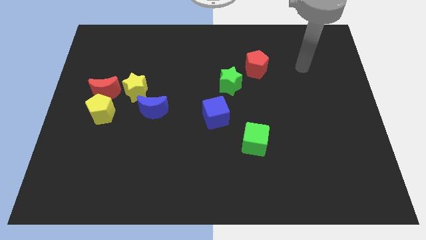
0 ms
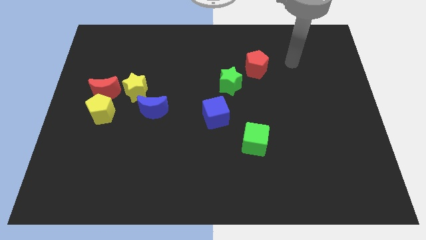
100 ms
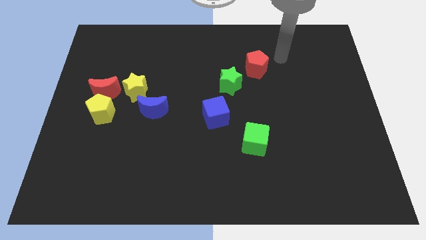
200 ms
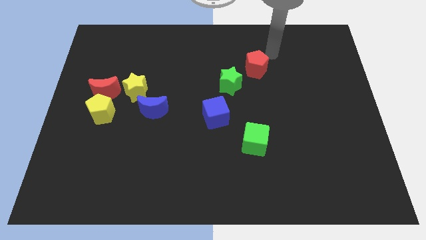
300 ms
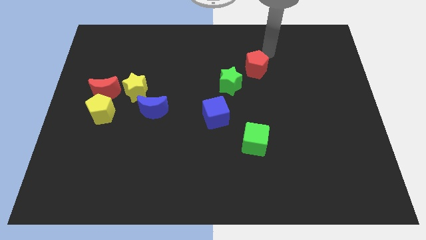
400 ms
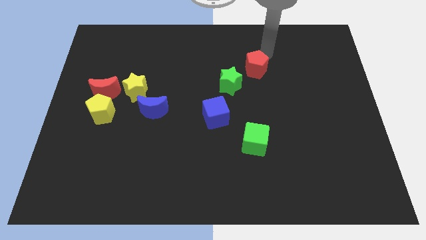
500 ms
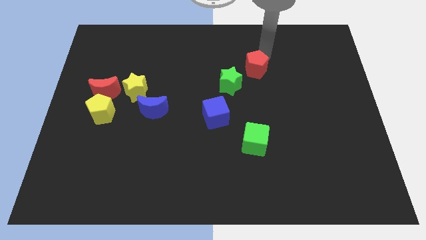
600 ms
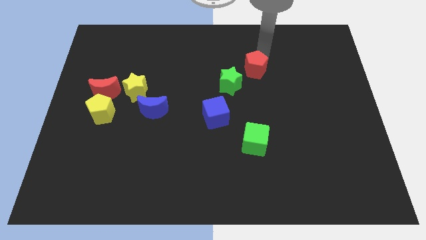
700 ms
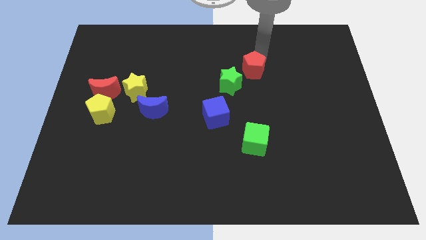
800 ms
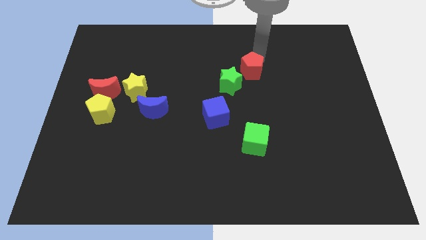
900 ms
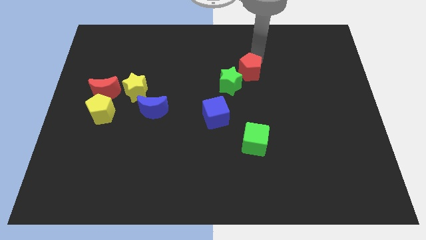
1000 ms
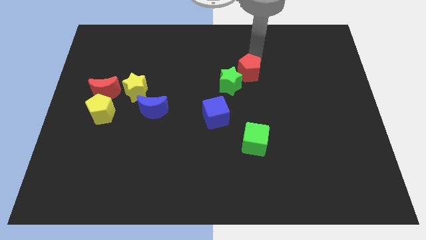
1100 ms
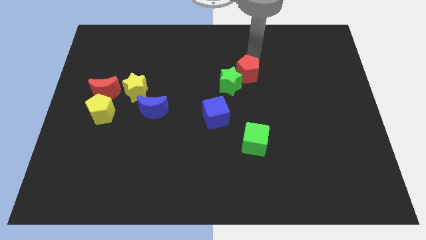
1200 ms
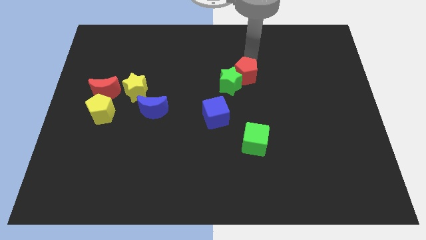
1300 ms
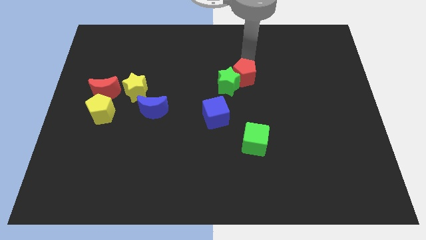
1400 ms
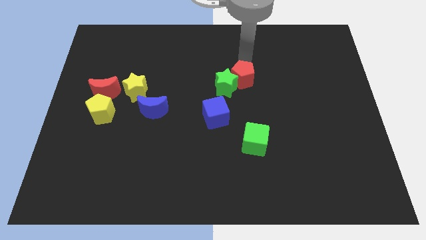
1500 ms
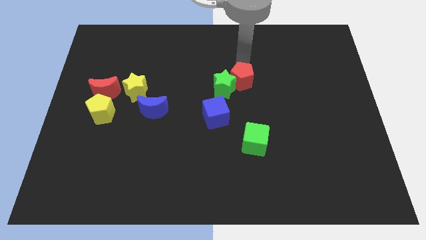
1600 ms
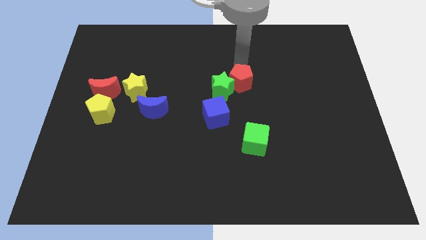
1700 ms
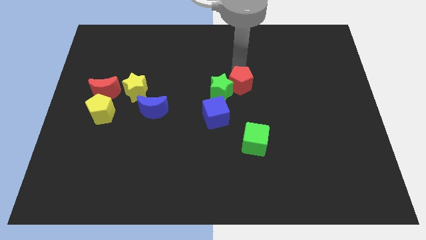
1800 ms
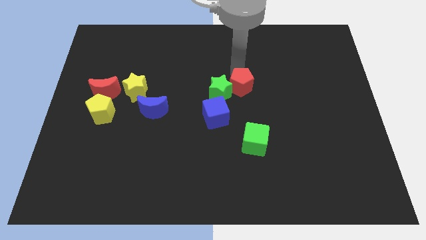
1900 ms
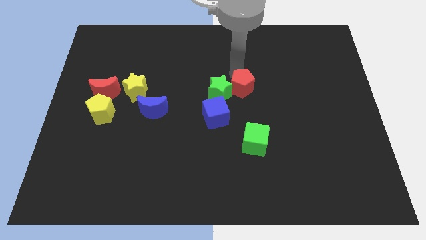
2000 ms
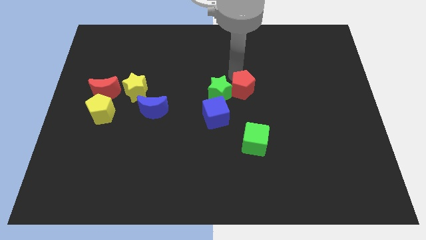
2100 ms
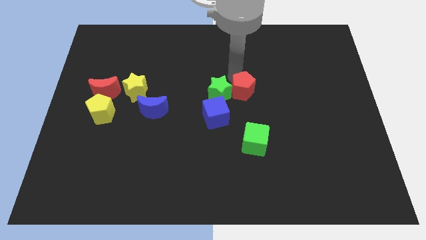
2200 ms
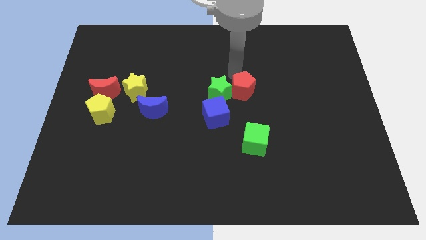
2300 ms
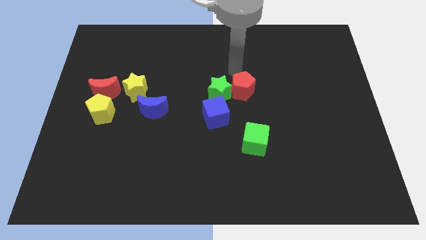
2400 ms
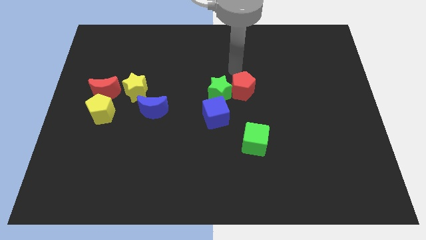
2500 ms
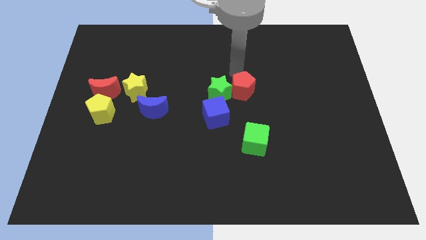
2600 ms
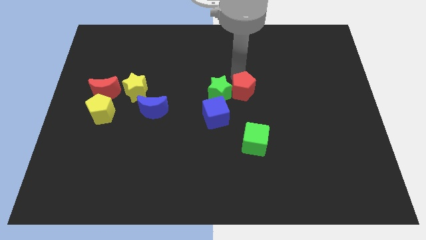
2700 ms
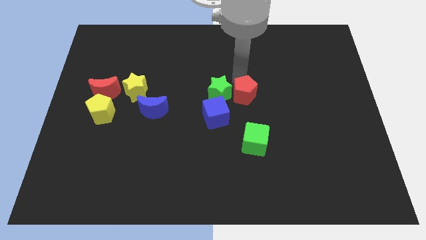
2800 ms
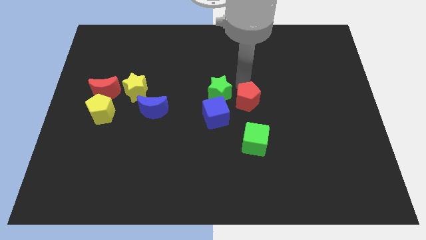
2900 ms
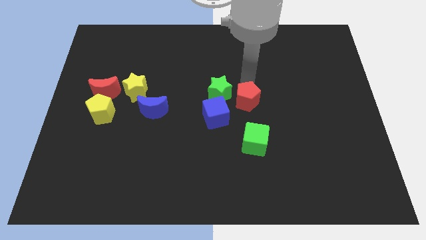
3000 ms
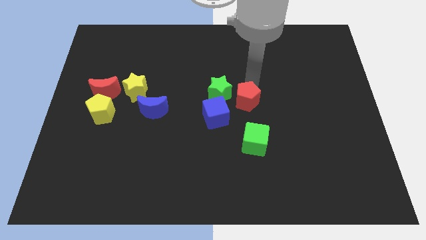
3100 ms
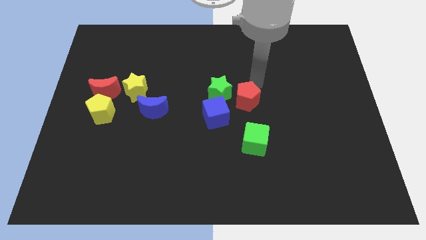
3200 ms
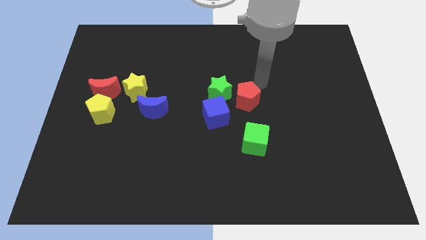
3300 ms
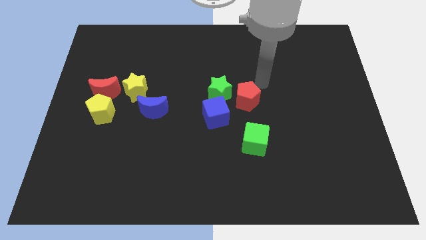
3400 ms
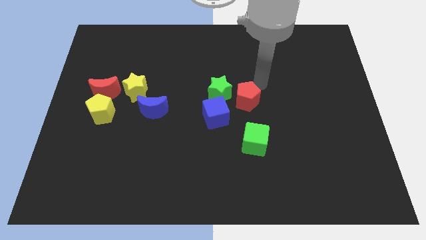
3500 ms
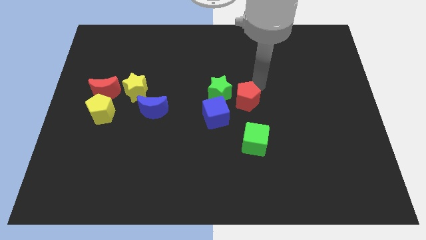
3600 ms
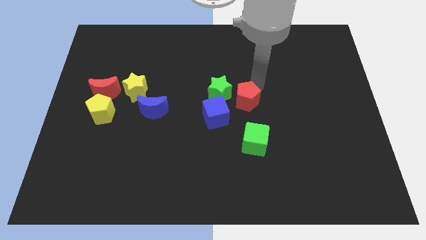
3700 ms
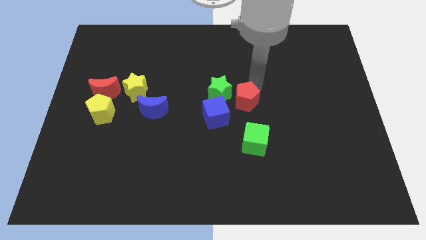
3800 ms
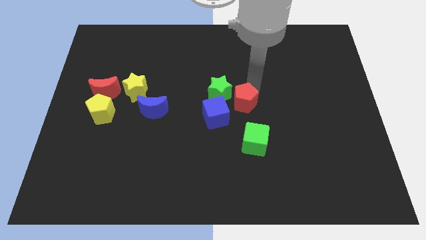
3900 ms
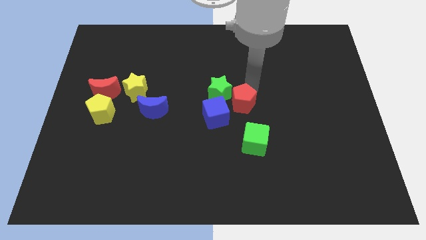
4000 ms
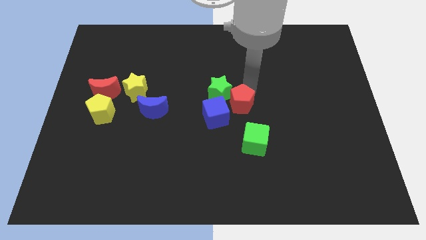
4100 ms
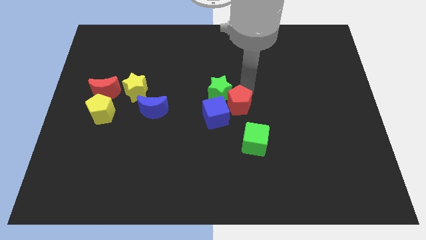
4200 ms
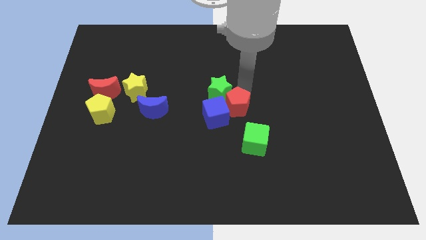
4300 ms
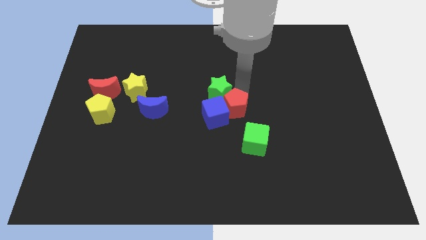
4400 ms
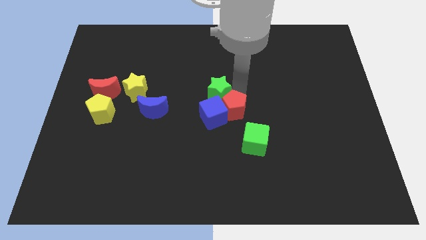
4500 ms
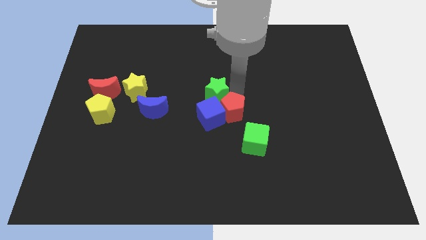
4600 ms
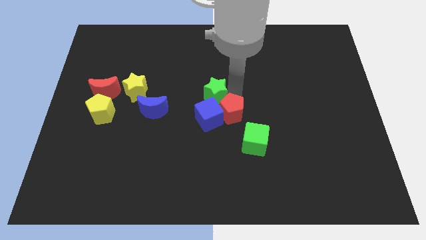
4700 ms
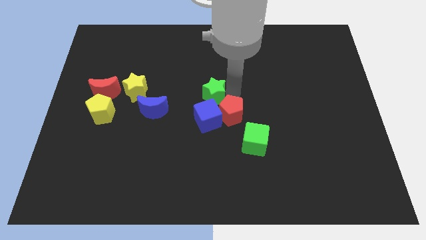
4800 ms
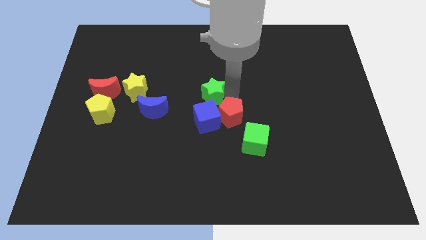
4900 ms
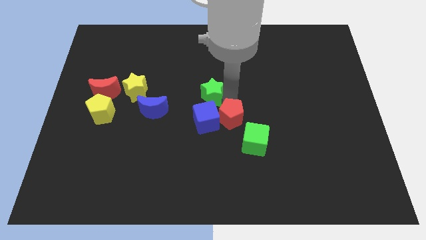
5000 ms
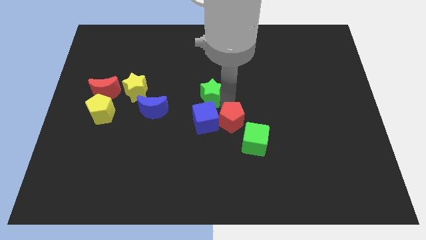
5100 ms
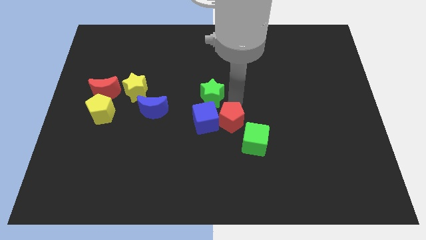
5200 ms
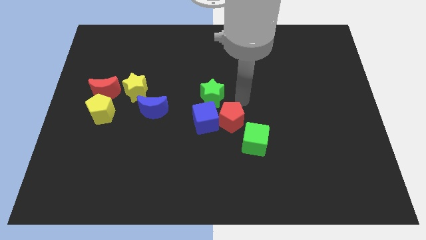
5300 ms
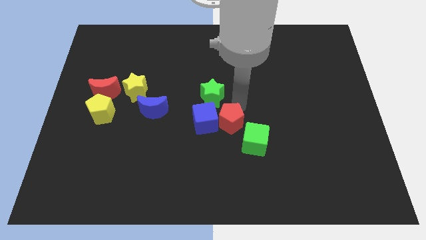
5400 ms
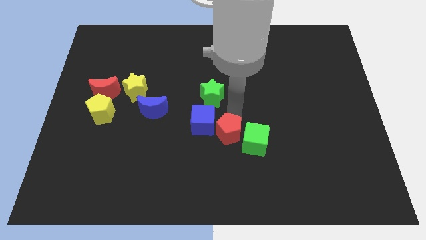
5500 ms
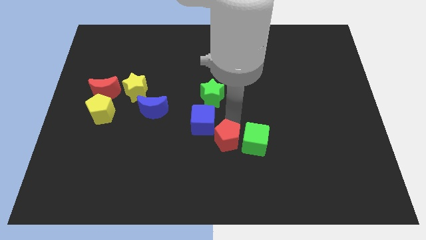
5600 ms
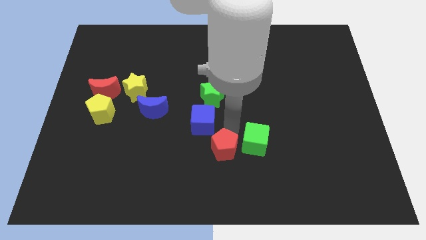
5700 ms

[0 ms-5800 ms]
move the red pentagon to the bottom side of the blue cube

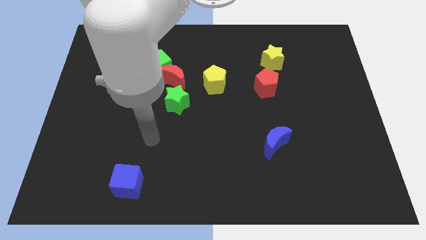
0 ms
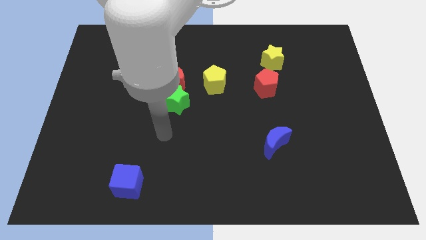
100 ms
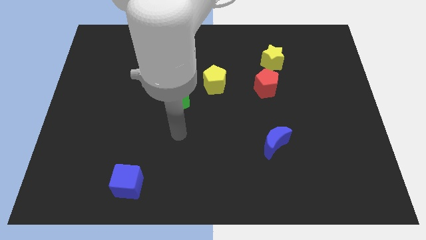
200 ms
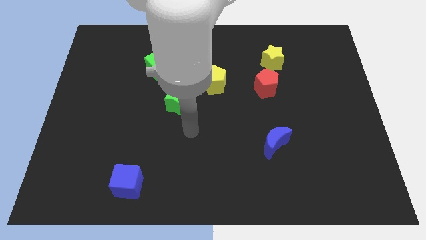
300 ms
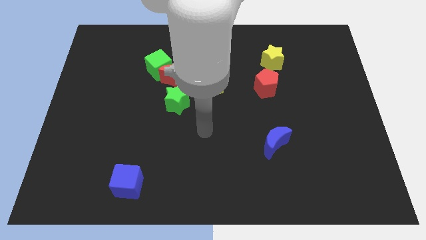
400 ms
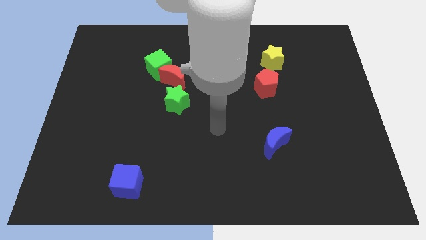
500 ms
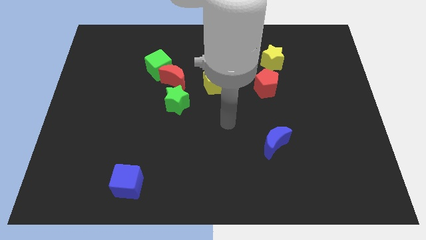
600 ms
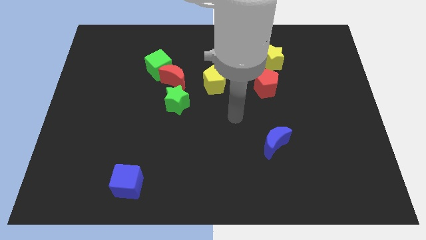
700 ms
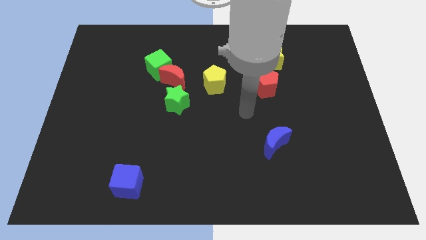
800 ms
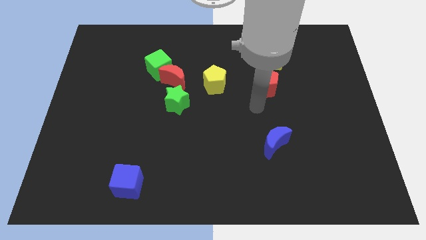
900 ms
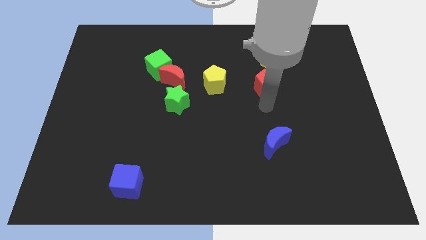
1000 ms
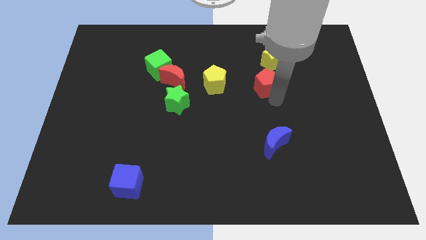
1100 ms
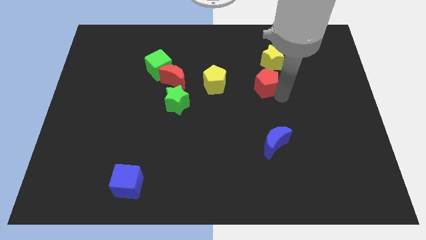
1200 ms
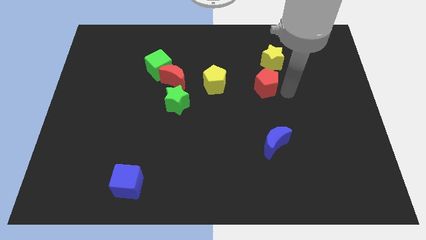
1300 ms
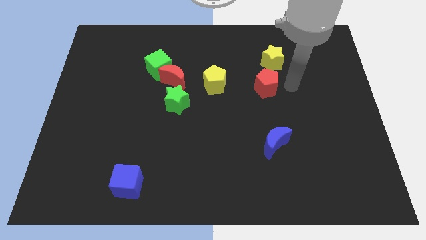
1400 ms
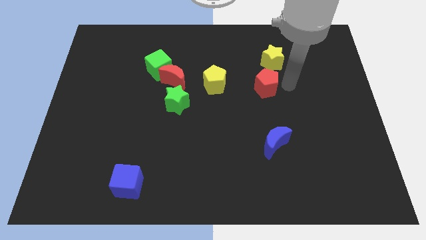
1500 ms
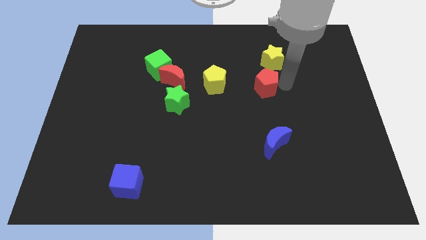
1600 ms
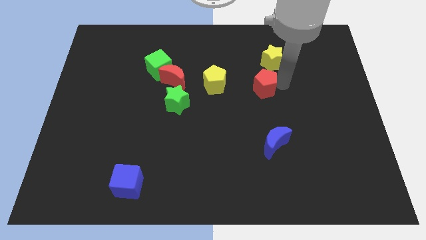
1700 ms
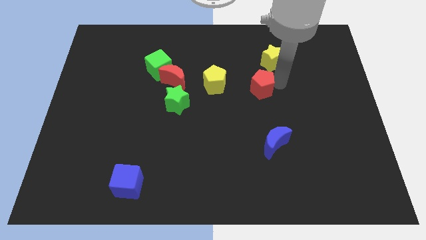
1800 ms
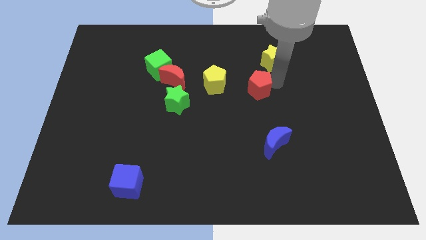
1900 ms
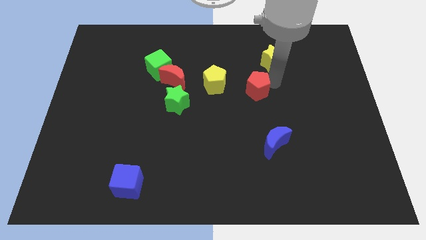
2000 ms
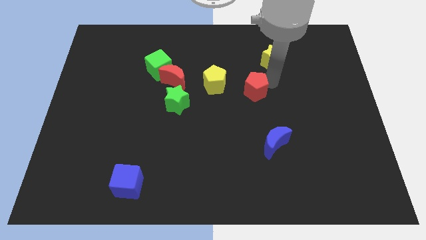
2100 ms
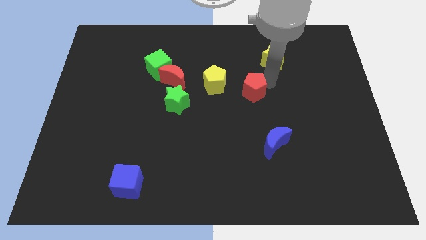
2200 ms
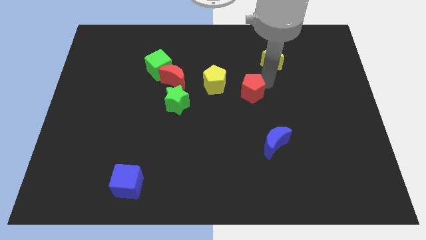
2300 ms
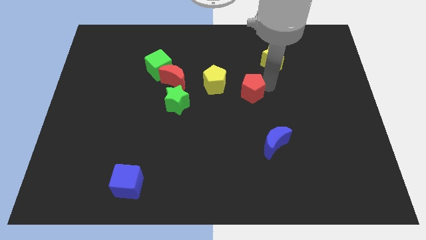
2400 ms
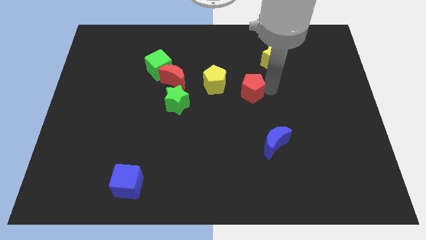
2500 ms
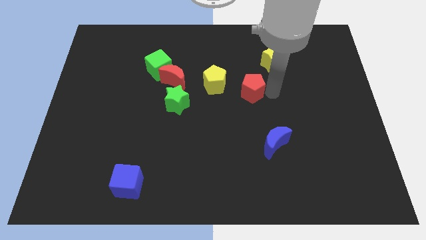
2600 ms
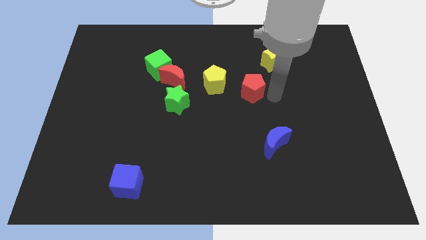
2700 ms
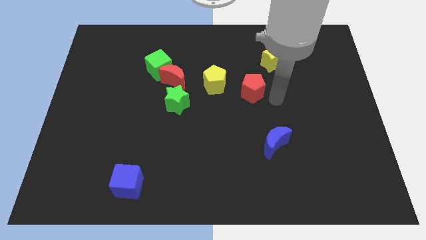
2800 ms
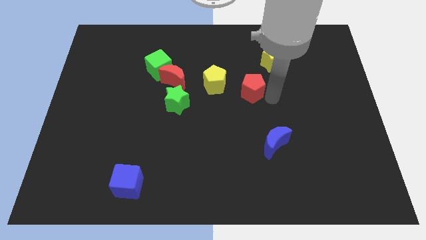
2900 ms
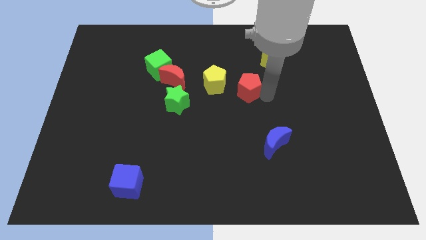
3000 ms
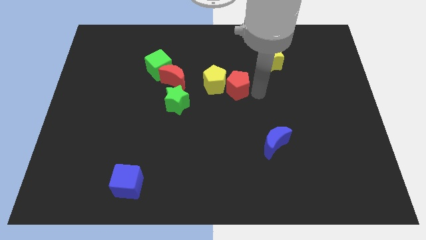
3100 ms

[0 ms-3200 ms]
slide the red pentagon to the right side of the red moon
